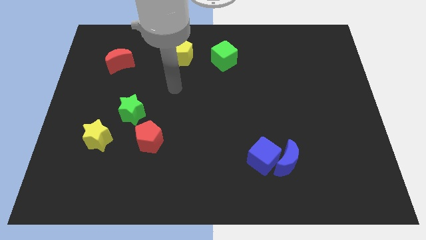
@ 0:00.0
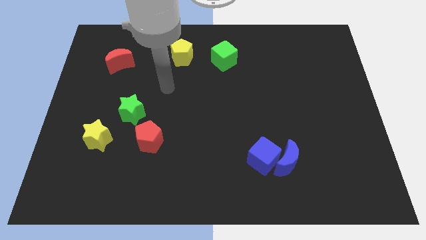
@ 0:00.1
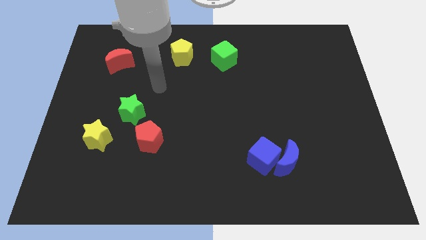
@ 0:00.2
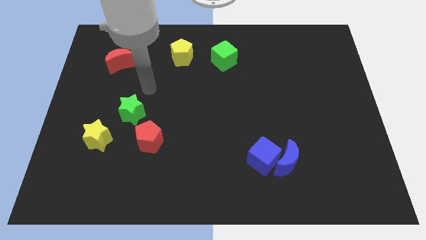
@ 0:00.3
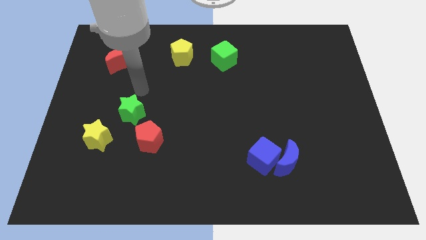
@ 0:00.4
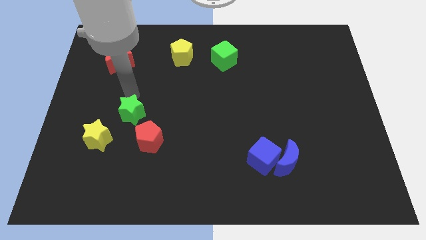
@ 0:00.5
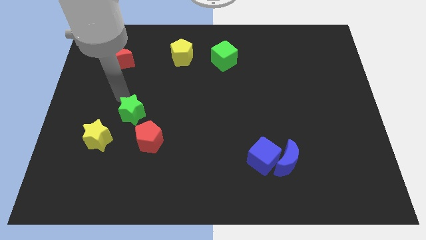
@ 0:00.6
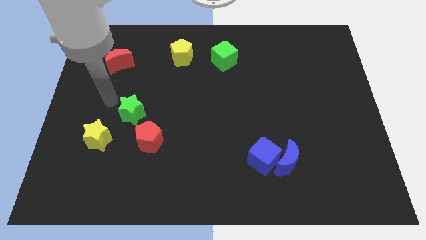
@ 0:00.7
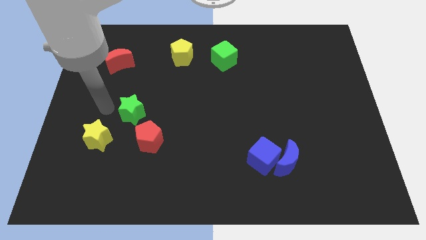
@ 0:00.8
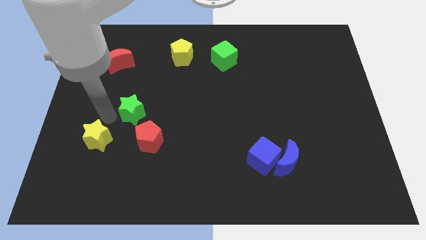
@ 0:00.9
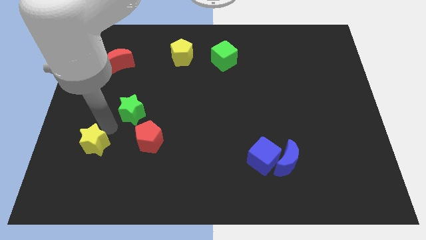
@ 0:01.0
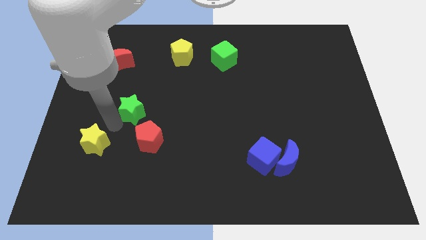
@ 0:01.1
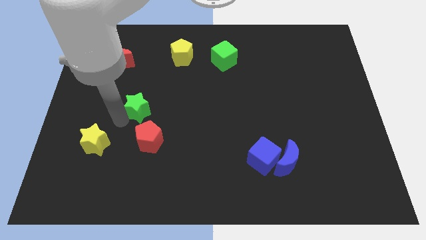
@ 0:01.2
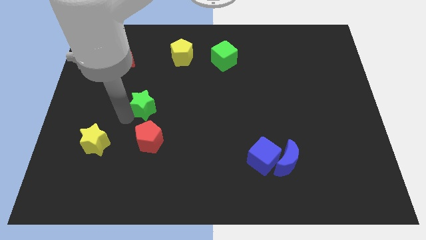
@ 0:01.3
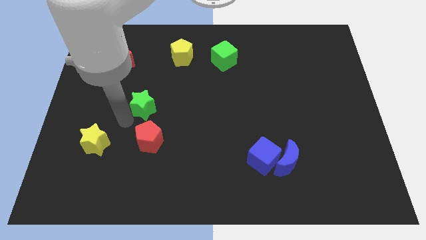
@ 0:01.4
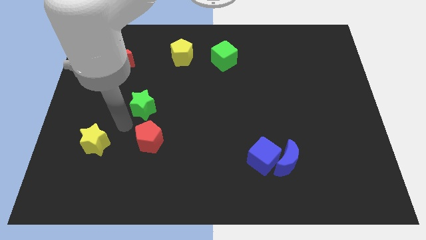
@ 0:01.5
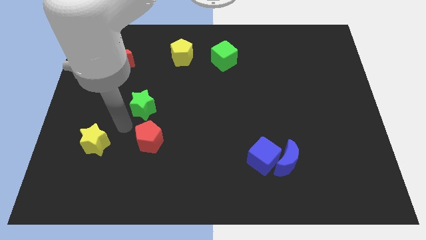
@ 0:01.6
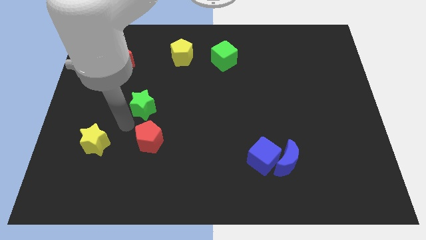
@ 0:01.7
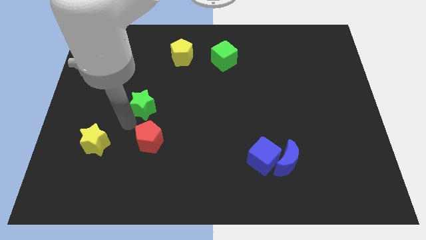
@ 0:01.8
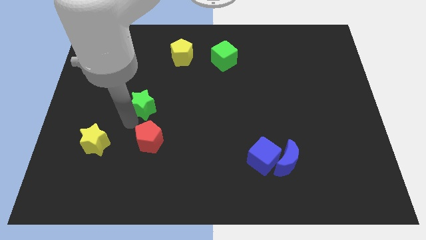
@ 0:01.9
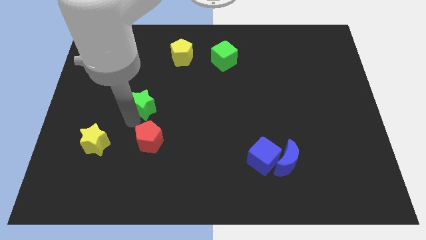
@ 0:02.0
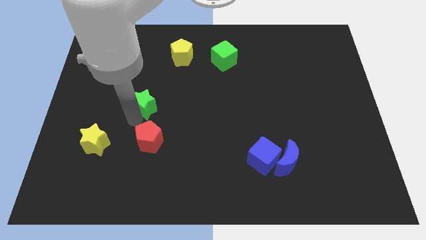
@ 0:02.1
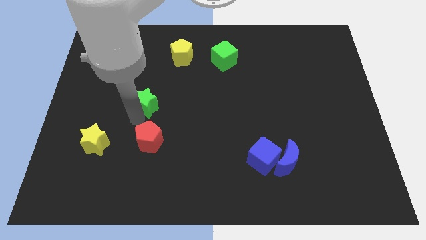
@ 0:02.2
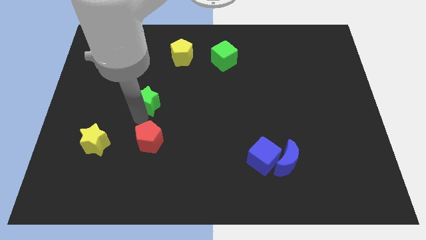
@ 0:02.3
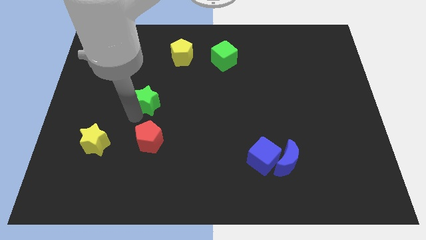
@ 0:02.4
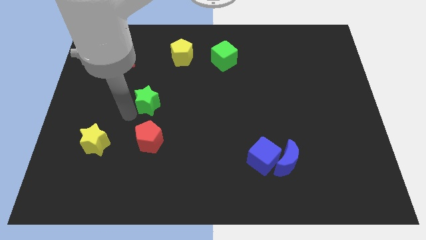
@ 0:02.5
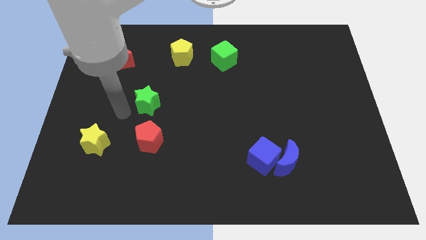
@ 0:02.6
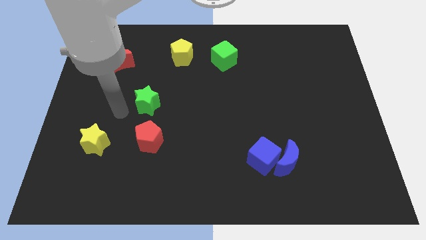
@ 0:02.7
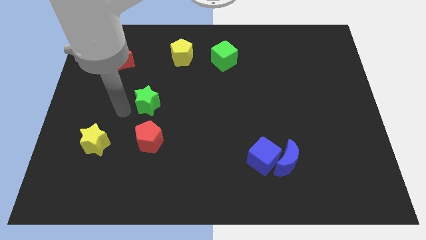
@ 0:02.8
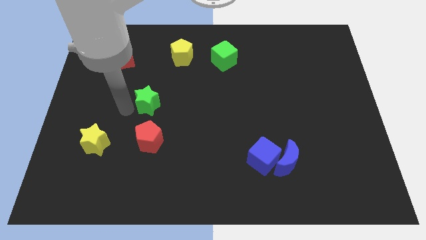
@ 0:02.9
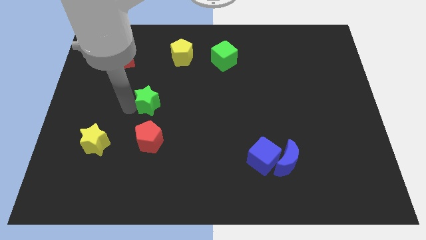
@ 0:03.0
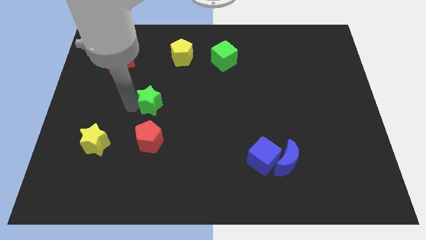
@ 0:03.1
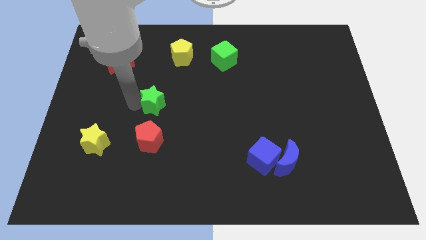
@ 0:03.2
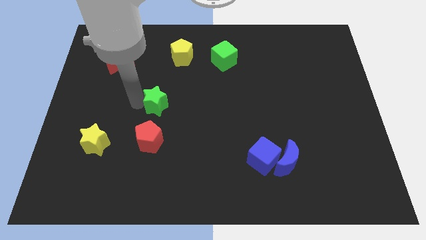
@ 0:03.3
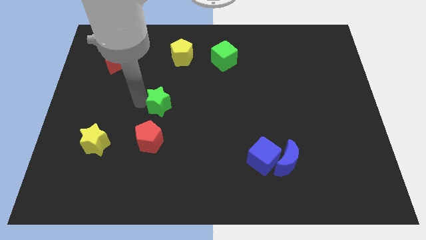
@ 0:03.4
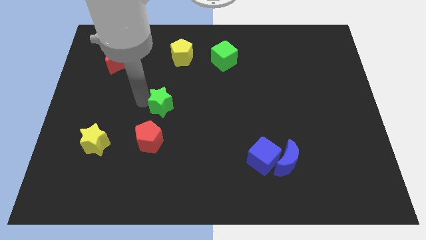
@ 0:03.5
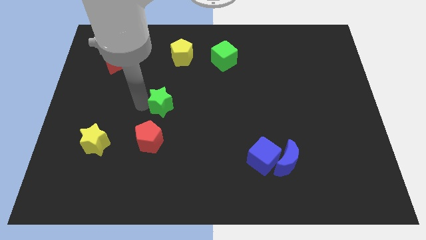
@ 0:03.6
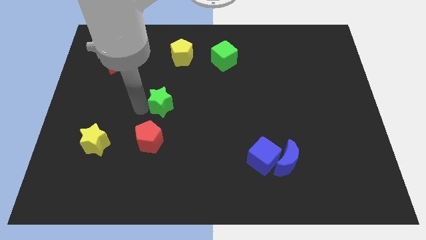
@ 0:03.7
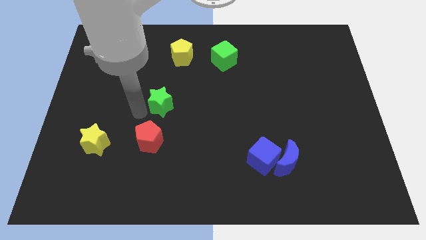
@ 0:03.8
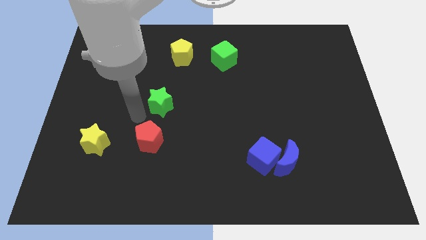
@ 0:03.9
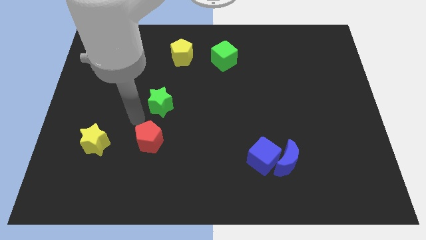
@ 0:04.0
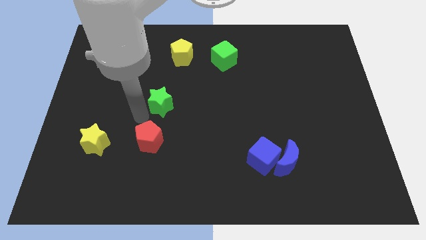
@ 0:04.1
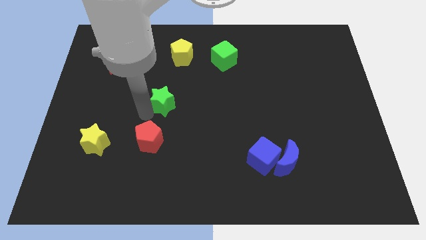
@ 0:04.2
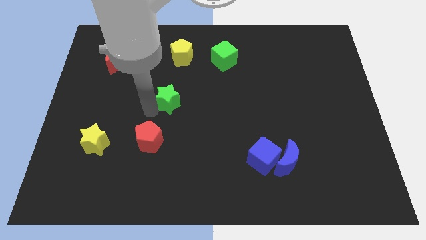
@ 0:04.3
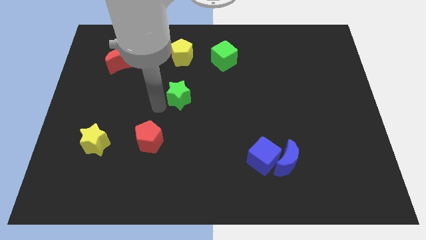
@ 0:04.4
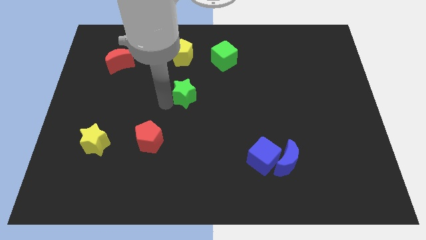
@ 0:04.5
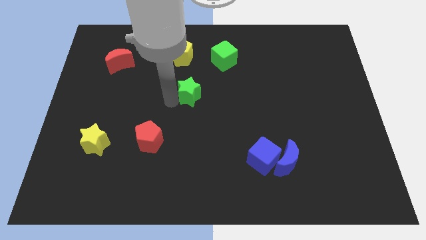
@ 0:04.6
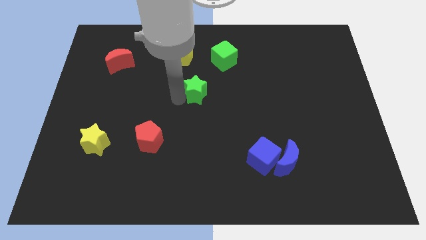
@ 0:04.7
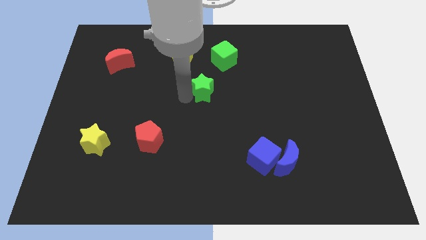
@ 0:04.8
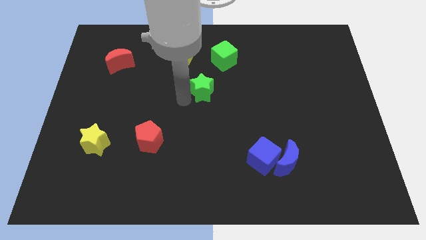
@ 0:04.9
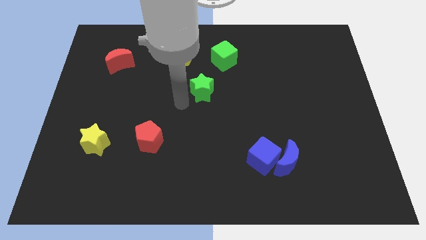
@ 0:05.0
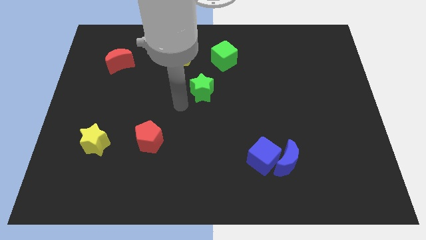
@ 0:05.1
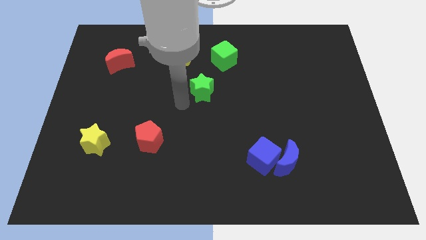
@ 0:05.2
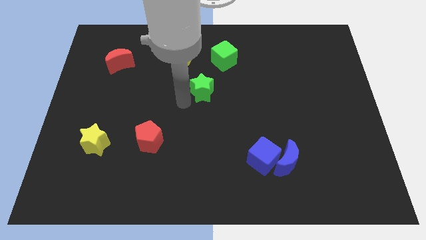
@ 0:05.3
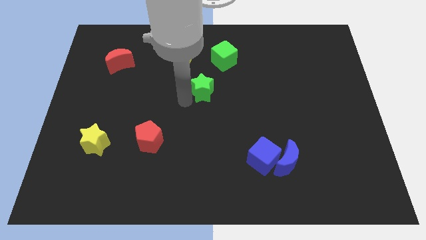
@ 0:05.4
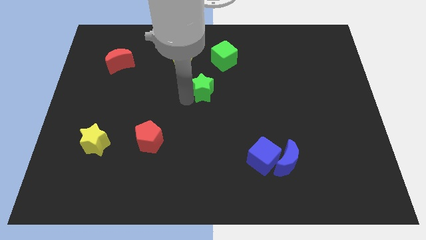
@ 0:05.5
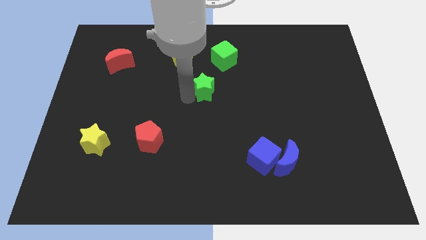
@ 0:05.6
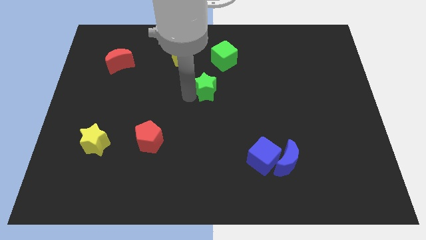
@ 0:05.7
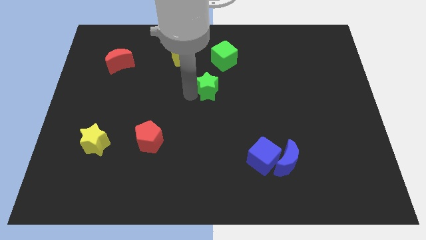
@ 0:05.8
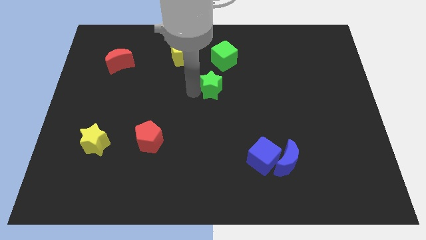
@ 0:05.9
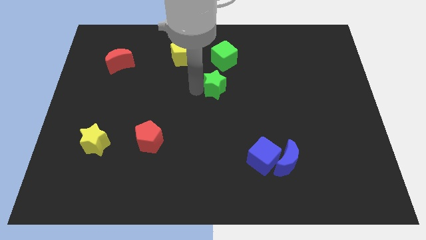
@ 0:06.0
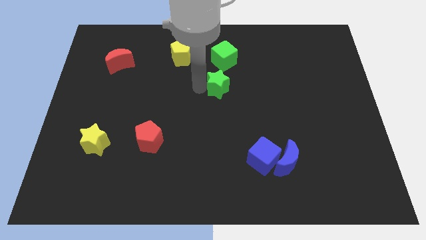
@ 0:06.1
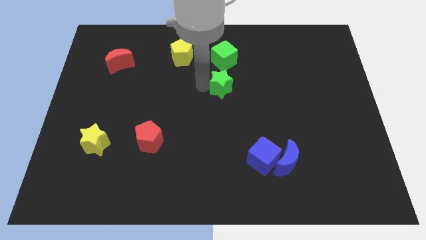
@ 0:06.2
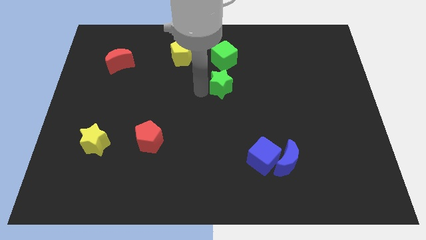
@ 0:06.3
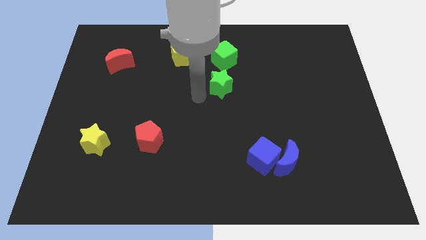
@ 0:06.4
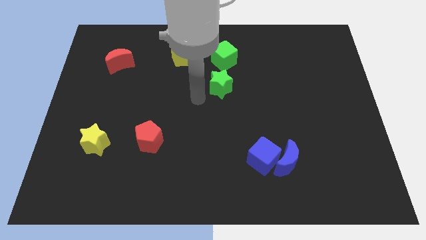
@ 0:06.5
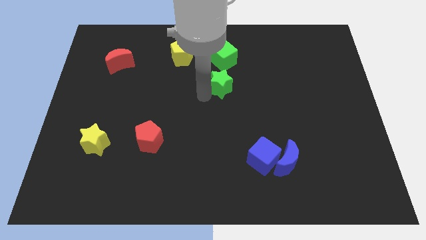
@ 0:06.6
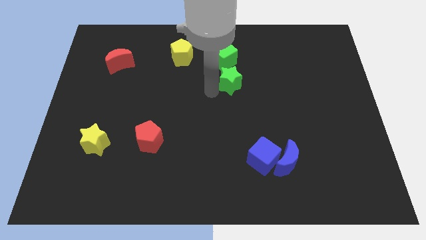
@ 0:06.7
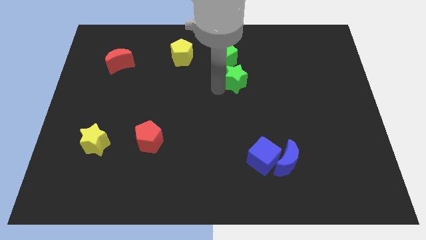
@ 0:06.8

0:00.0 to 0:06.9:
push the green star to the bottom right side of the green cube

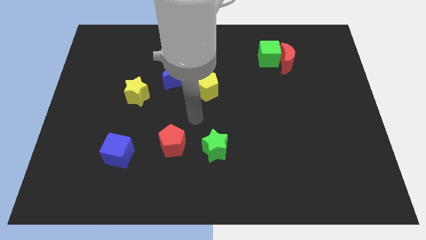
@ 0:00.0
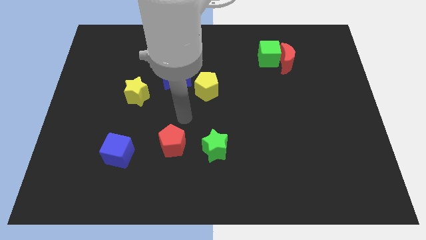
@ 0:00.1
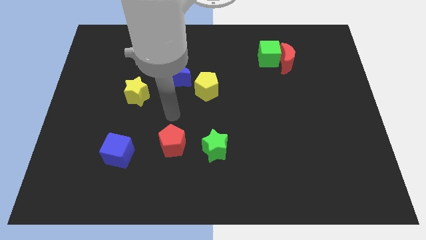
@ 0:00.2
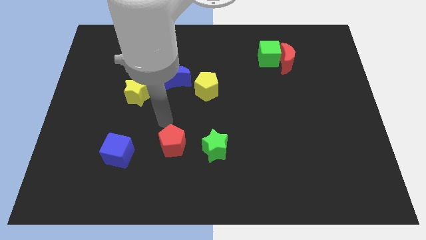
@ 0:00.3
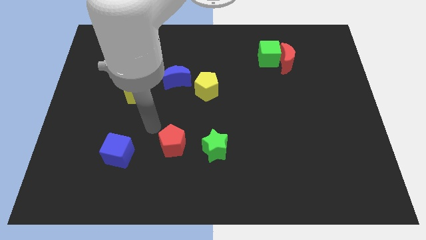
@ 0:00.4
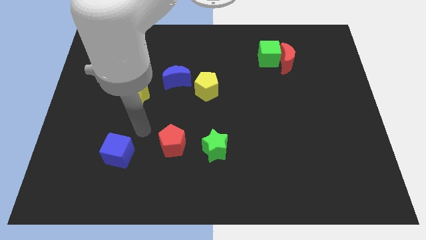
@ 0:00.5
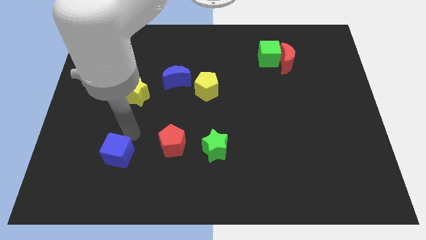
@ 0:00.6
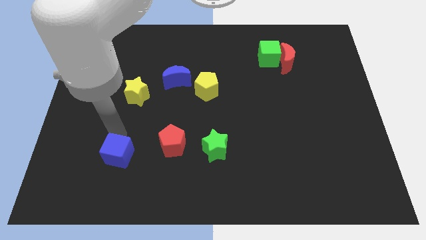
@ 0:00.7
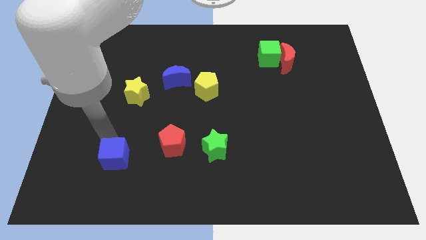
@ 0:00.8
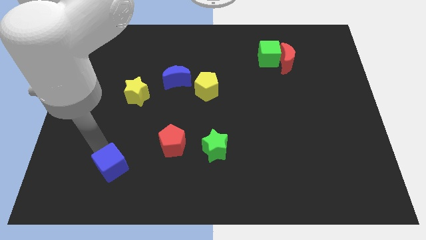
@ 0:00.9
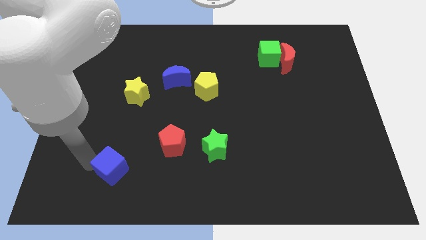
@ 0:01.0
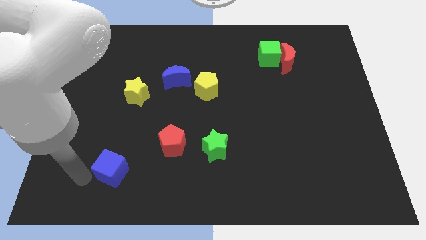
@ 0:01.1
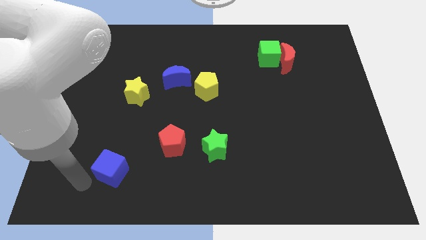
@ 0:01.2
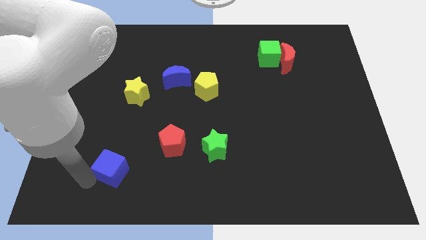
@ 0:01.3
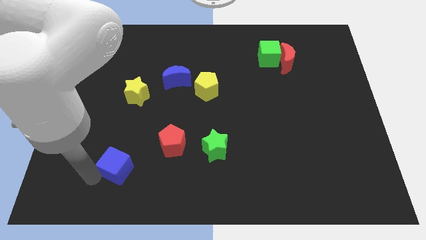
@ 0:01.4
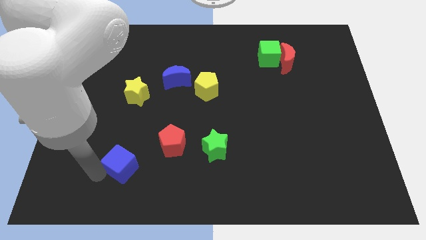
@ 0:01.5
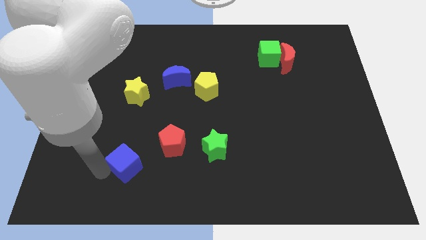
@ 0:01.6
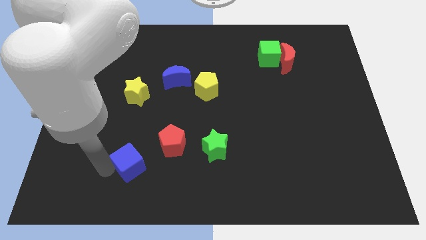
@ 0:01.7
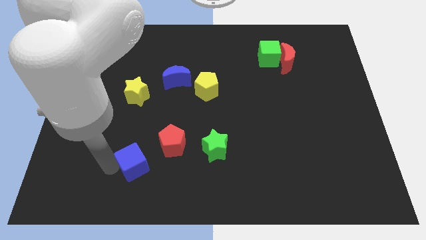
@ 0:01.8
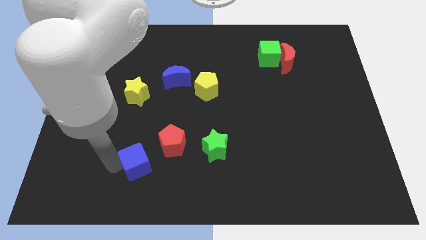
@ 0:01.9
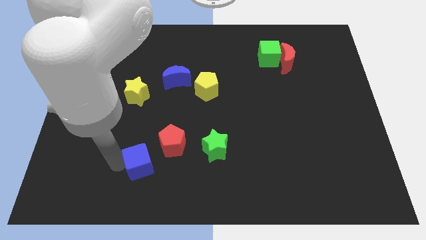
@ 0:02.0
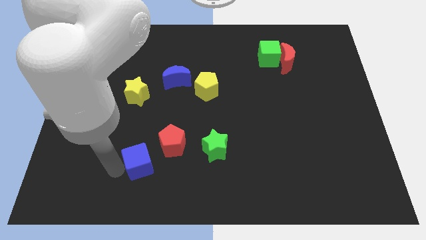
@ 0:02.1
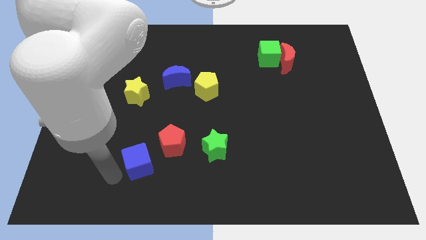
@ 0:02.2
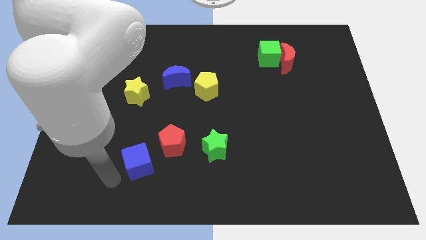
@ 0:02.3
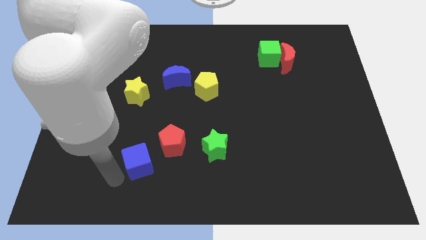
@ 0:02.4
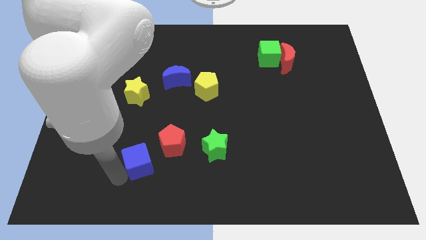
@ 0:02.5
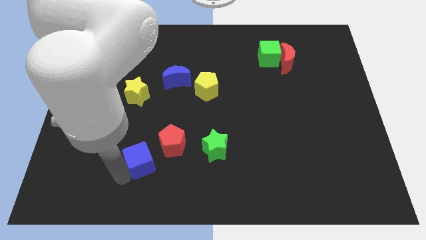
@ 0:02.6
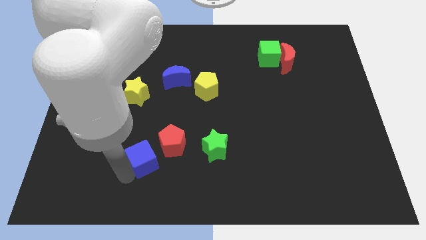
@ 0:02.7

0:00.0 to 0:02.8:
slide the blue cube to the left of the green star
